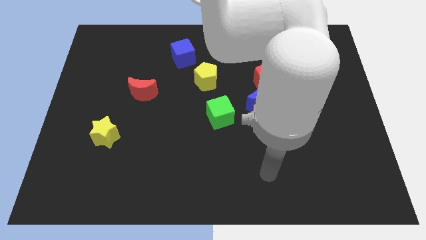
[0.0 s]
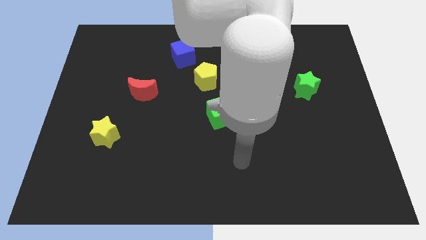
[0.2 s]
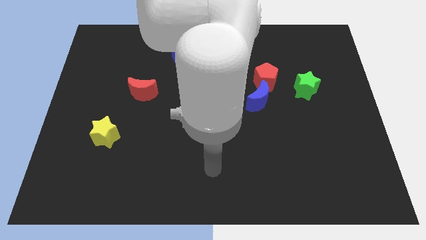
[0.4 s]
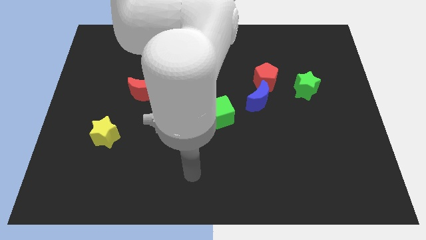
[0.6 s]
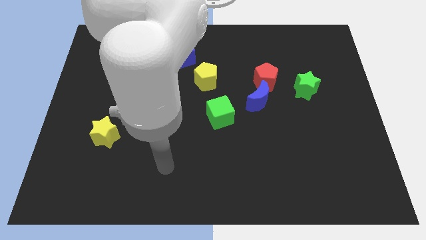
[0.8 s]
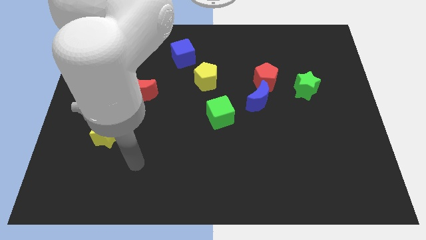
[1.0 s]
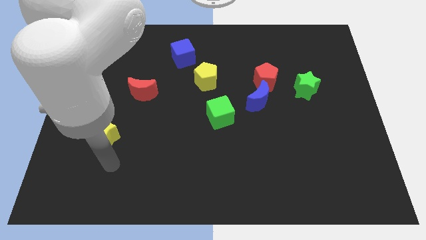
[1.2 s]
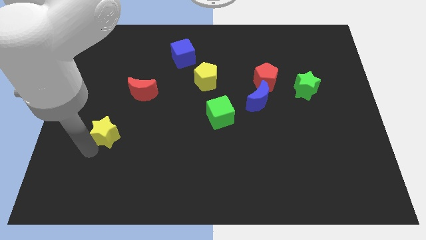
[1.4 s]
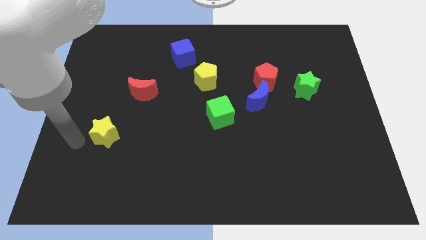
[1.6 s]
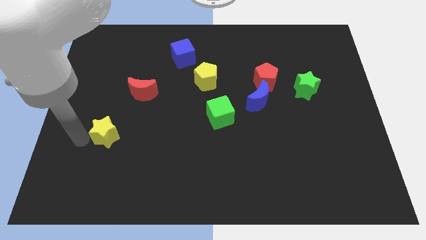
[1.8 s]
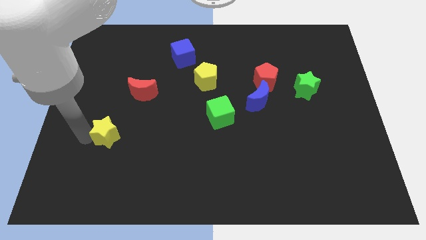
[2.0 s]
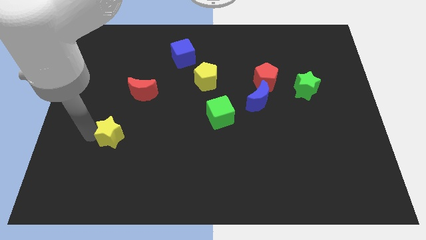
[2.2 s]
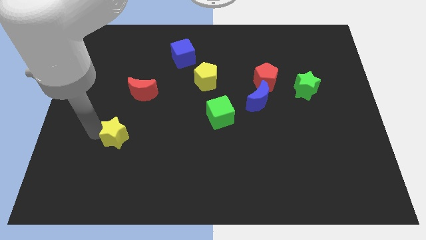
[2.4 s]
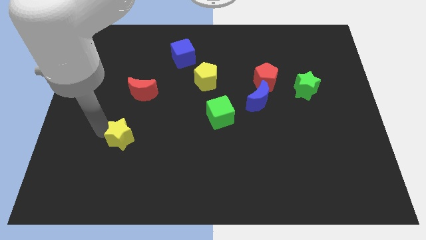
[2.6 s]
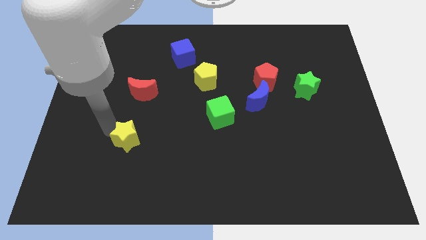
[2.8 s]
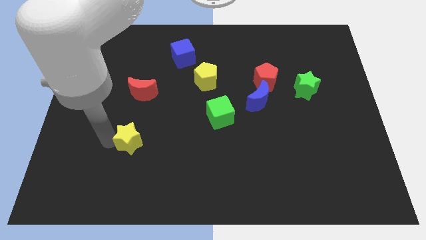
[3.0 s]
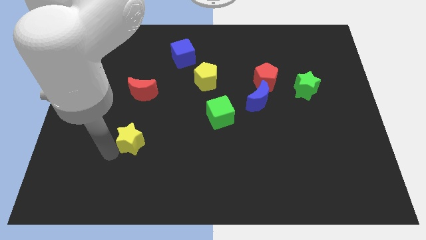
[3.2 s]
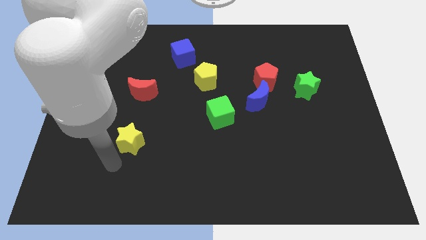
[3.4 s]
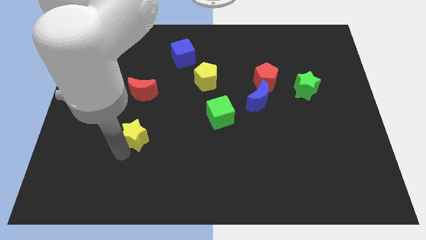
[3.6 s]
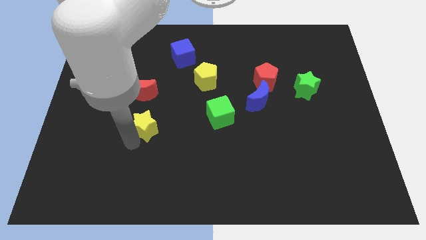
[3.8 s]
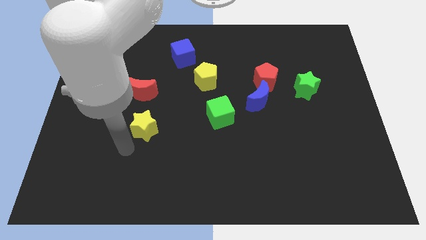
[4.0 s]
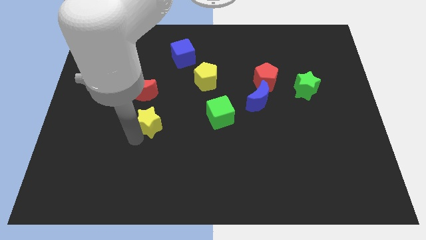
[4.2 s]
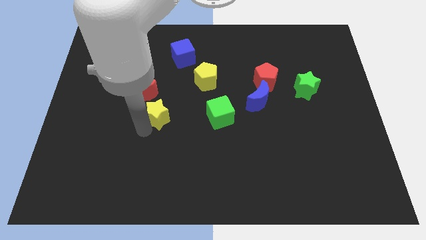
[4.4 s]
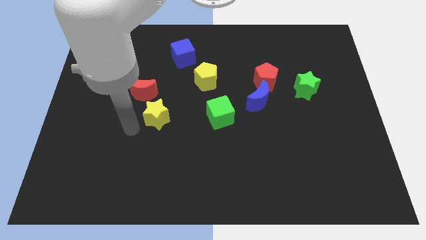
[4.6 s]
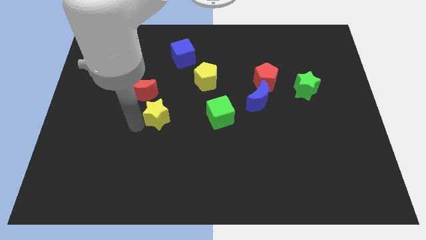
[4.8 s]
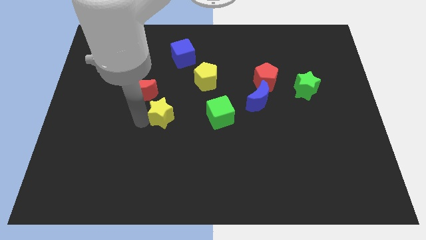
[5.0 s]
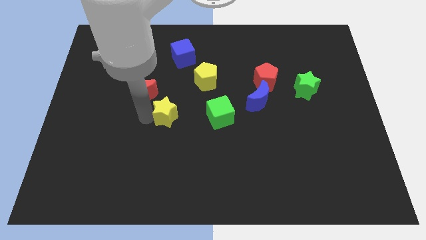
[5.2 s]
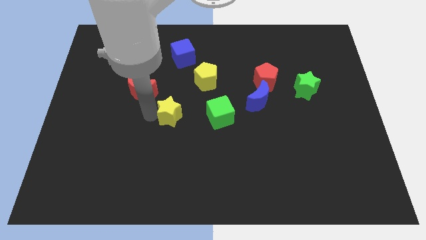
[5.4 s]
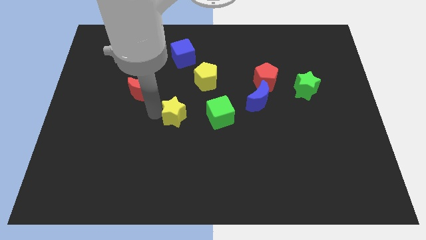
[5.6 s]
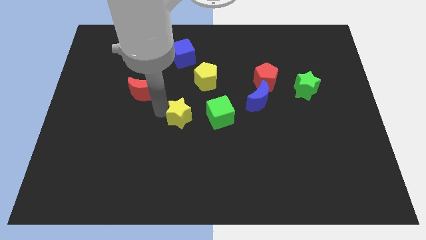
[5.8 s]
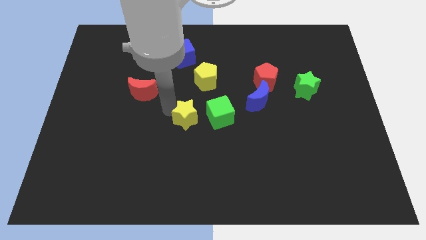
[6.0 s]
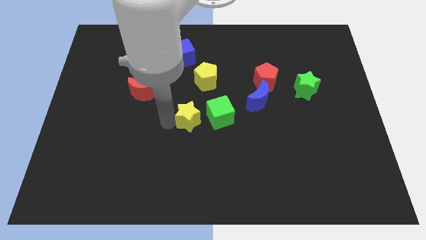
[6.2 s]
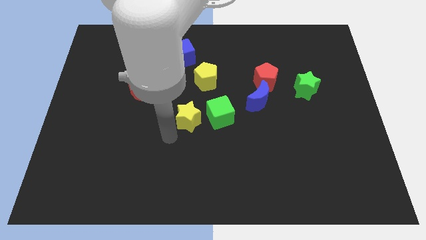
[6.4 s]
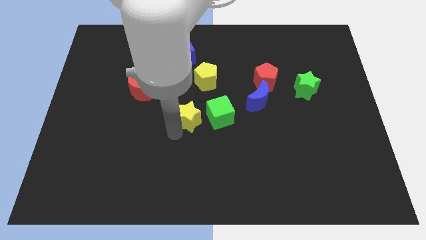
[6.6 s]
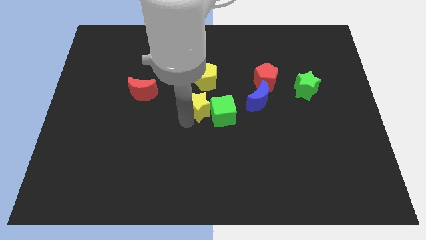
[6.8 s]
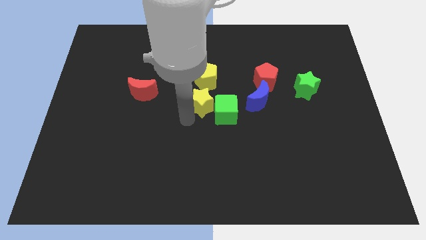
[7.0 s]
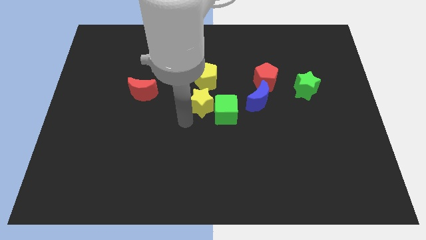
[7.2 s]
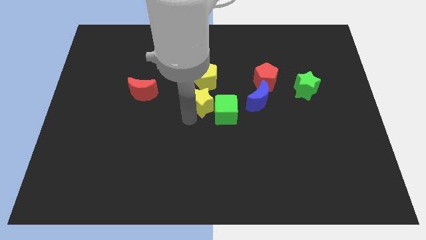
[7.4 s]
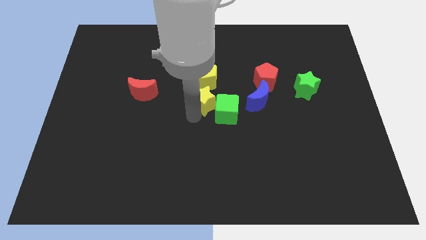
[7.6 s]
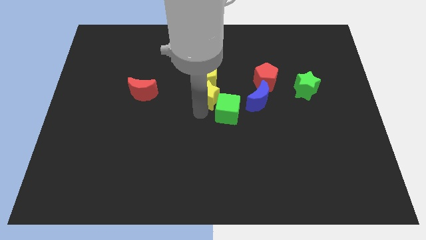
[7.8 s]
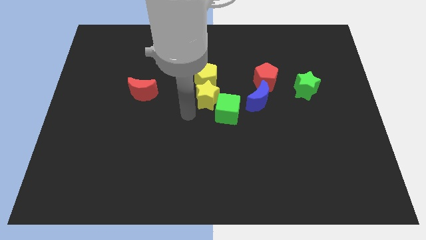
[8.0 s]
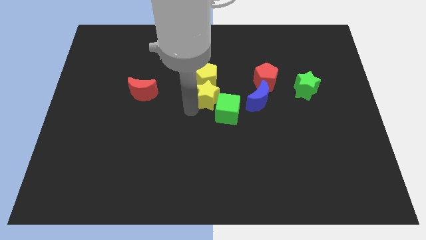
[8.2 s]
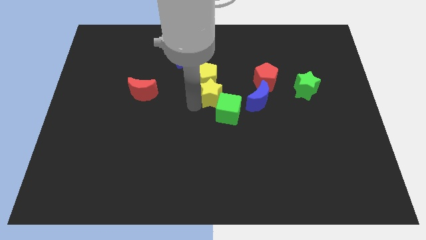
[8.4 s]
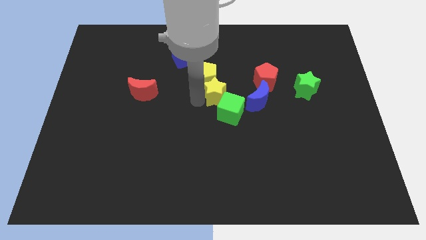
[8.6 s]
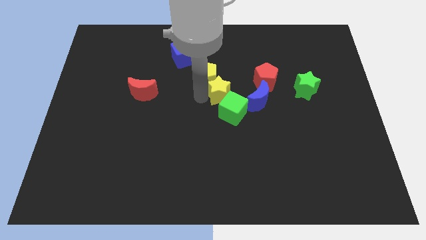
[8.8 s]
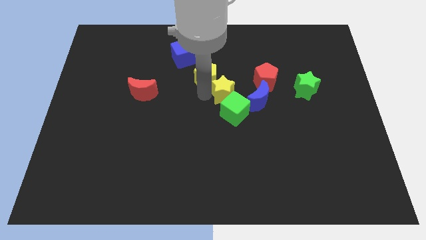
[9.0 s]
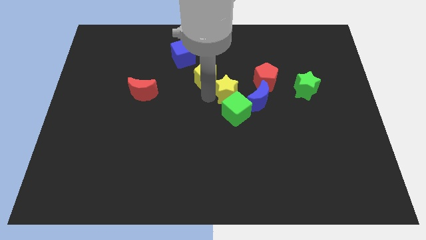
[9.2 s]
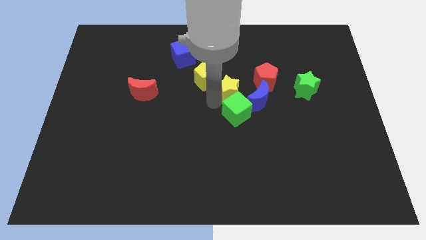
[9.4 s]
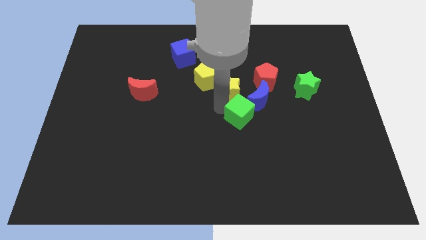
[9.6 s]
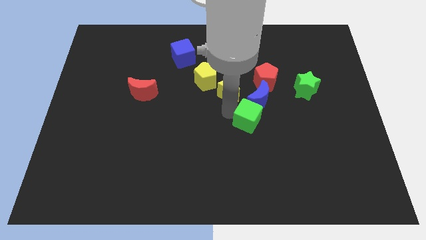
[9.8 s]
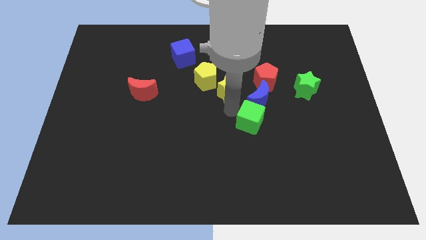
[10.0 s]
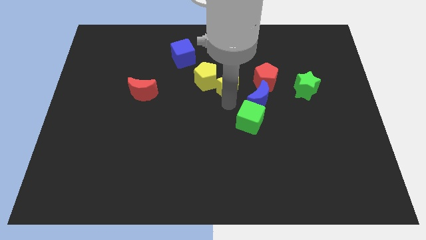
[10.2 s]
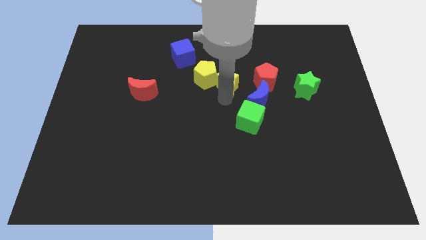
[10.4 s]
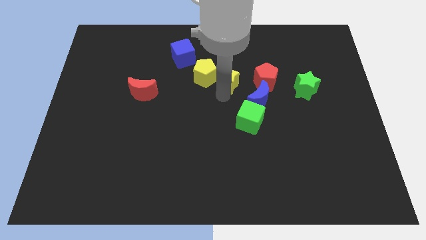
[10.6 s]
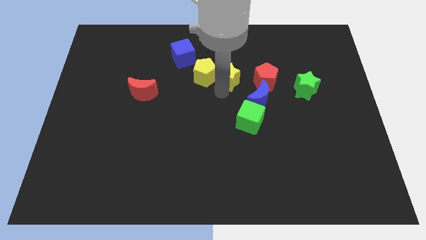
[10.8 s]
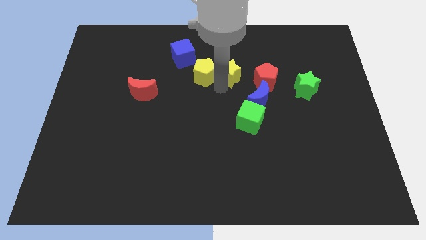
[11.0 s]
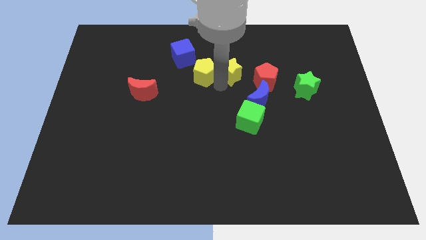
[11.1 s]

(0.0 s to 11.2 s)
put the yellow star to the top left of the red pentagon

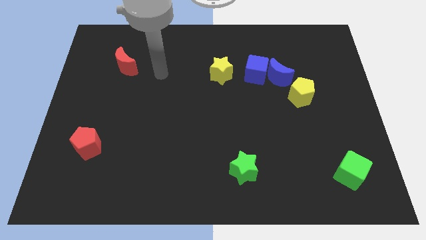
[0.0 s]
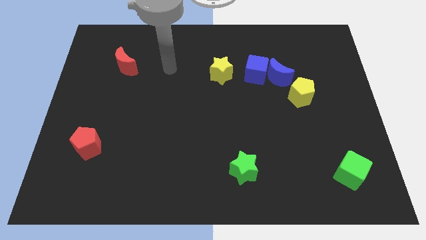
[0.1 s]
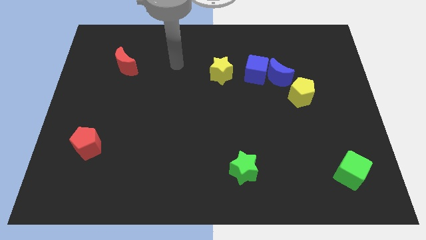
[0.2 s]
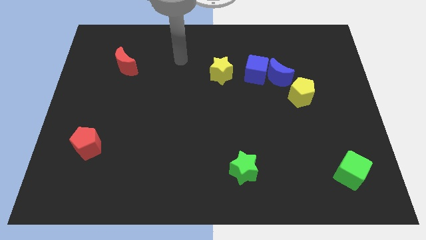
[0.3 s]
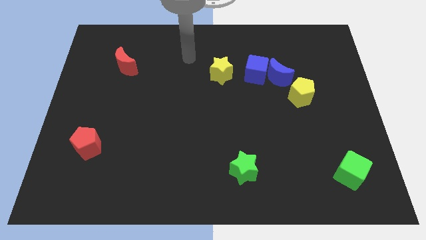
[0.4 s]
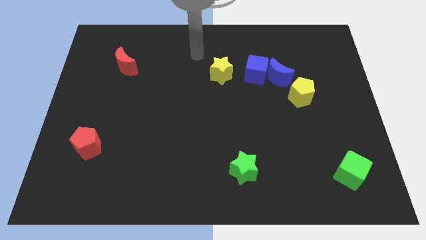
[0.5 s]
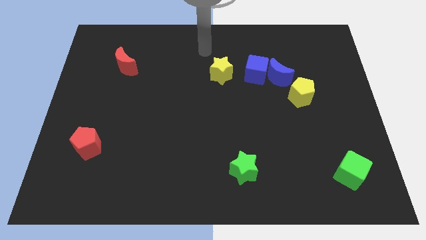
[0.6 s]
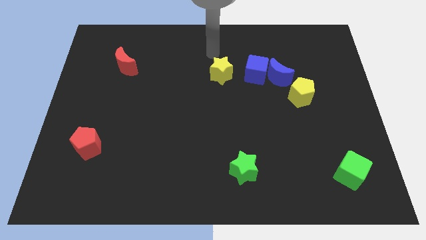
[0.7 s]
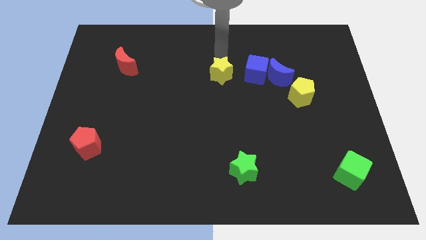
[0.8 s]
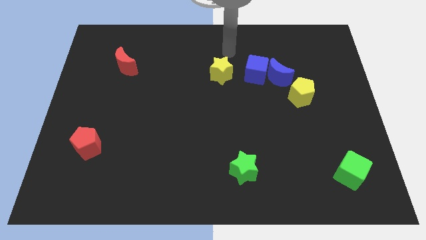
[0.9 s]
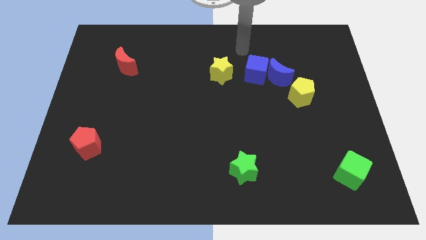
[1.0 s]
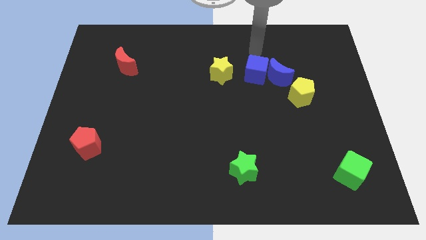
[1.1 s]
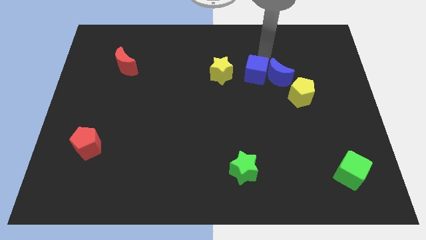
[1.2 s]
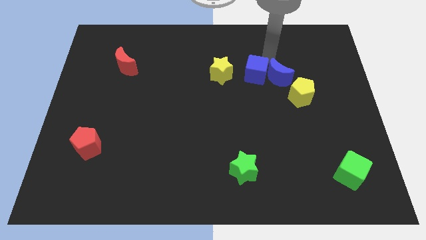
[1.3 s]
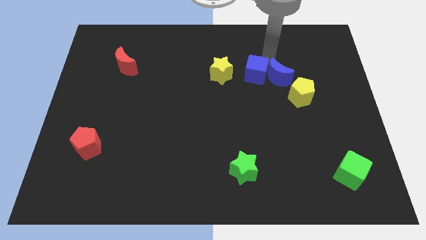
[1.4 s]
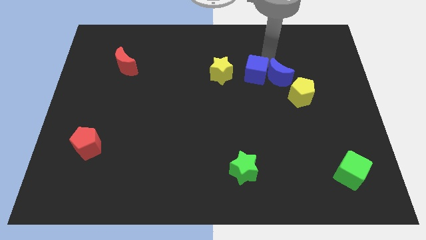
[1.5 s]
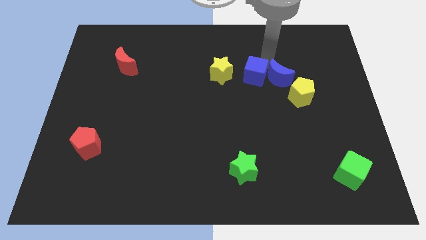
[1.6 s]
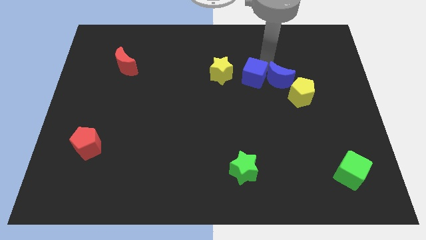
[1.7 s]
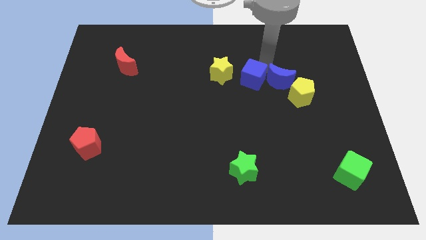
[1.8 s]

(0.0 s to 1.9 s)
put the blue cube diagonally down and to the right of the yellow star
